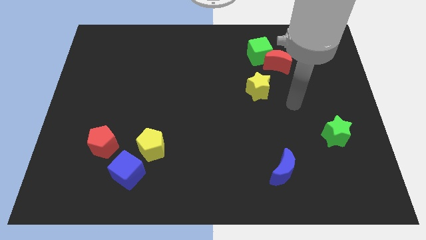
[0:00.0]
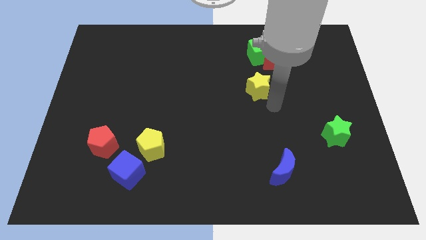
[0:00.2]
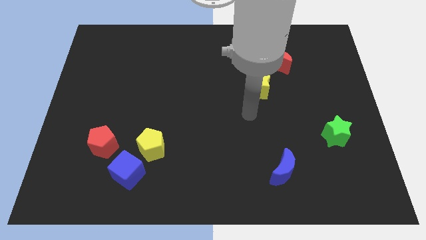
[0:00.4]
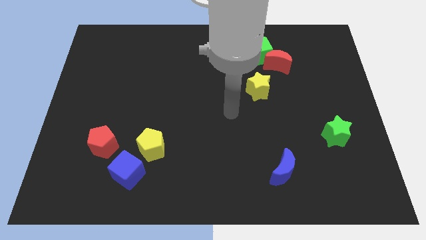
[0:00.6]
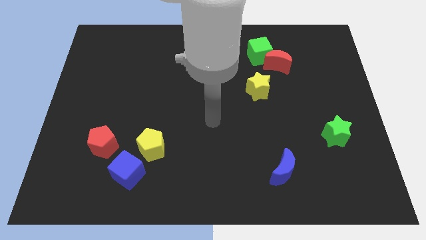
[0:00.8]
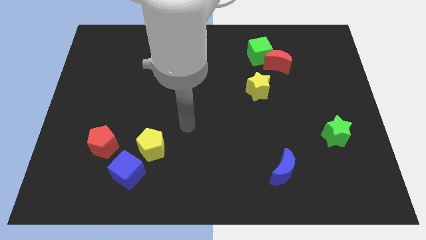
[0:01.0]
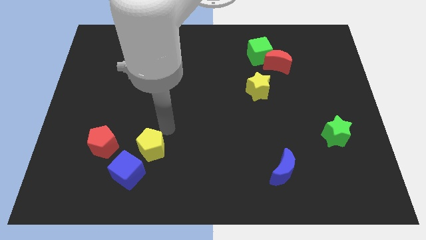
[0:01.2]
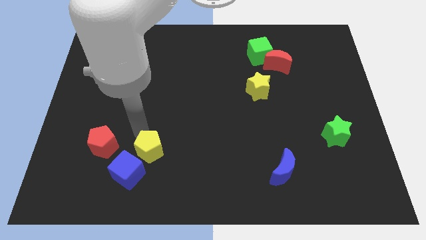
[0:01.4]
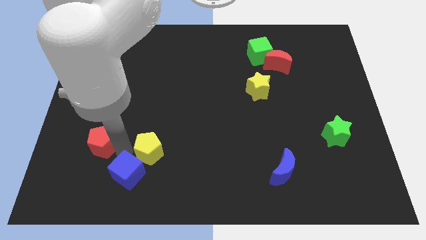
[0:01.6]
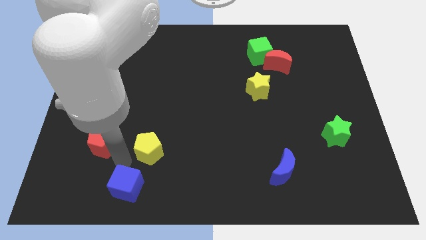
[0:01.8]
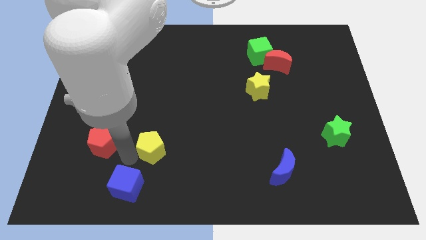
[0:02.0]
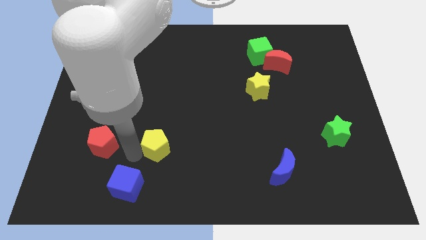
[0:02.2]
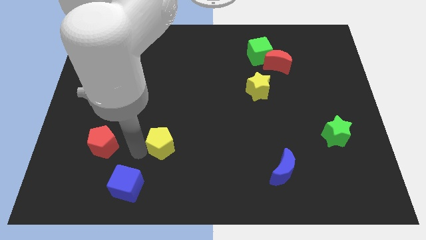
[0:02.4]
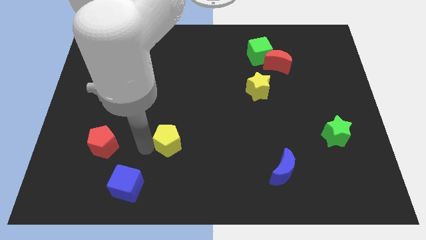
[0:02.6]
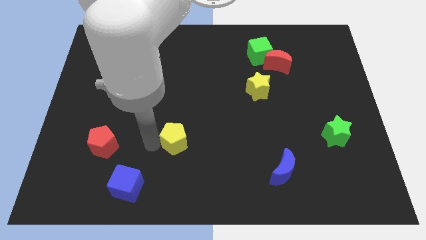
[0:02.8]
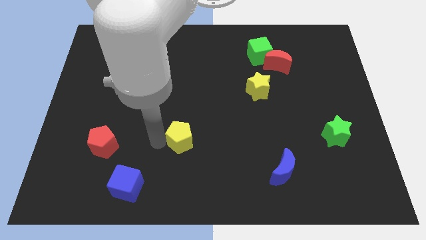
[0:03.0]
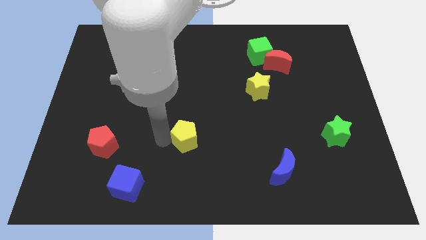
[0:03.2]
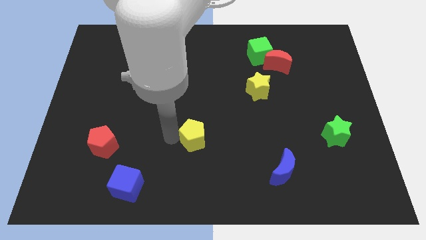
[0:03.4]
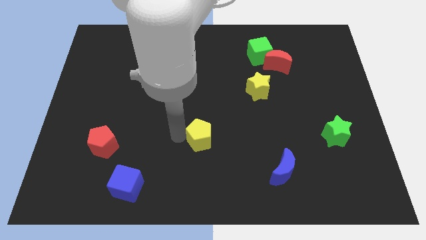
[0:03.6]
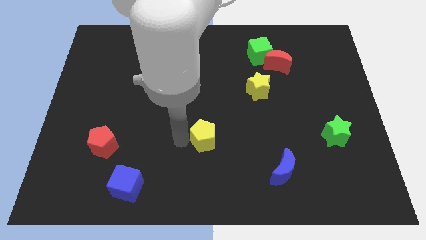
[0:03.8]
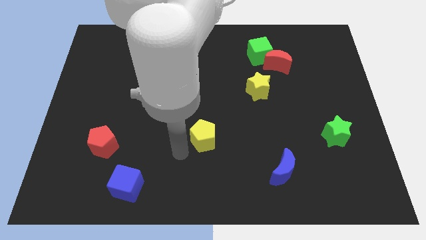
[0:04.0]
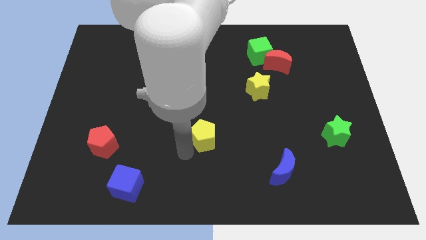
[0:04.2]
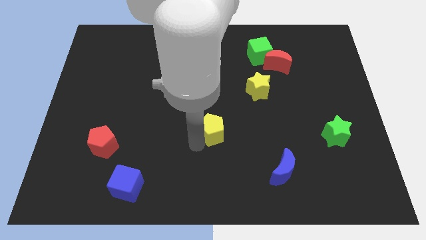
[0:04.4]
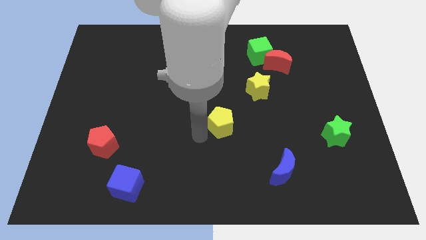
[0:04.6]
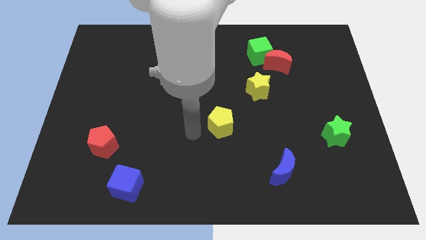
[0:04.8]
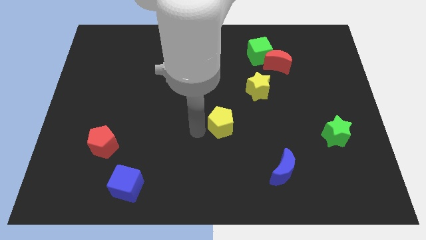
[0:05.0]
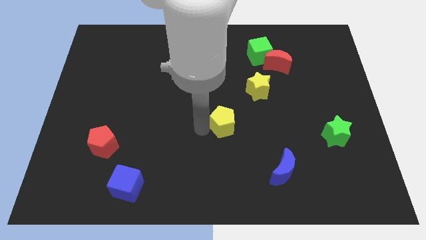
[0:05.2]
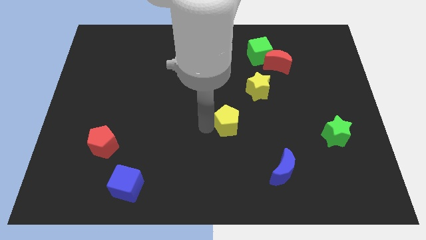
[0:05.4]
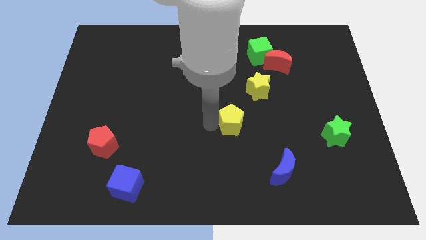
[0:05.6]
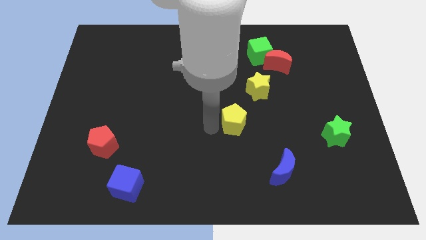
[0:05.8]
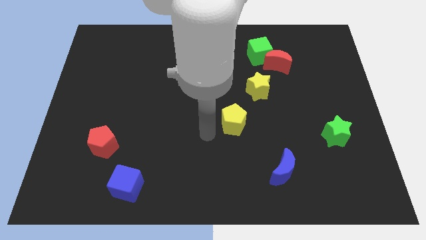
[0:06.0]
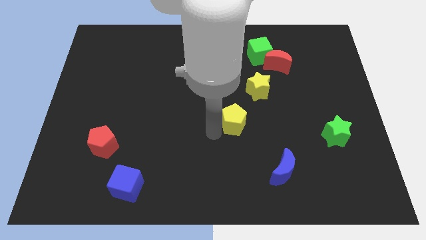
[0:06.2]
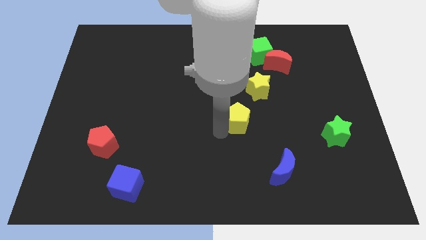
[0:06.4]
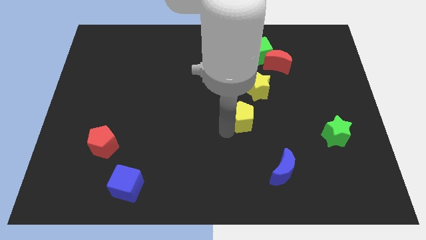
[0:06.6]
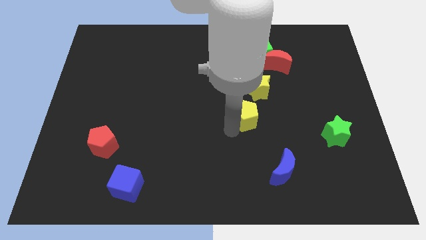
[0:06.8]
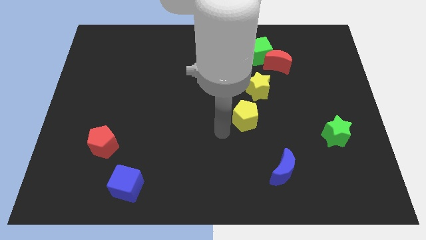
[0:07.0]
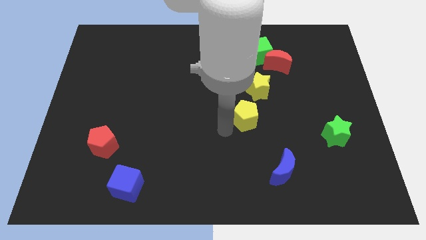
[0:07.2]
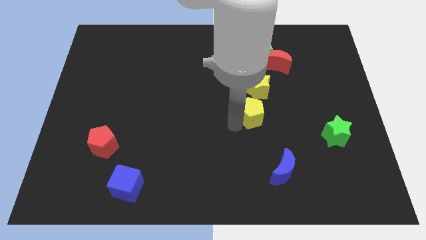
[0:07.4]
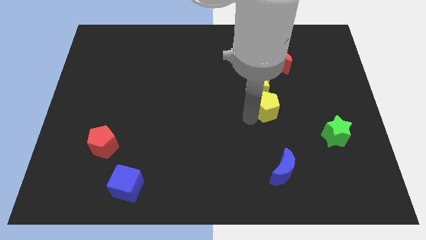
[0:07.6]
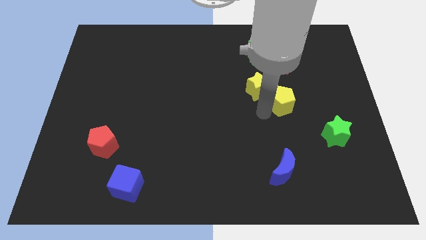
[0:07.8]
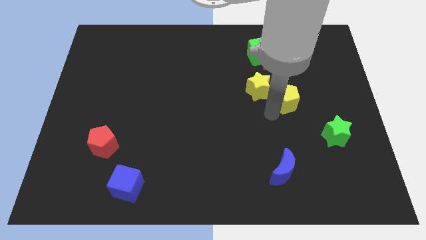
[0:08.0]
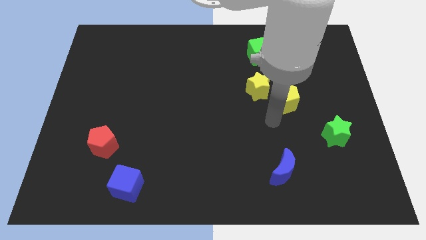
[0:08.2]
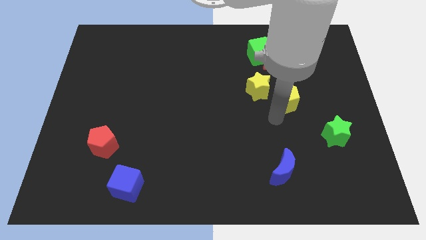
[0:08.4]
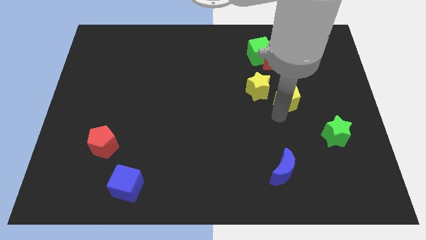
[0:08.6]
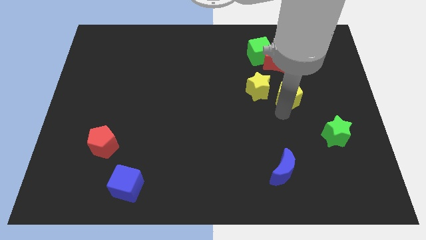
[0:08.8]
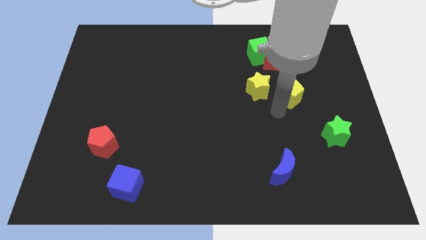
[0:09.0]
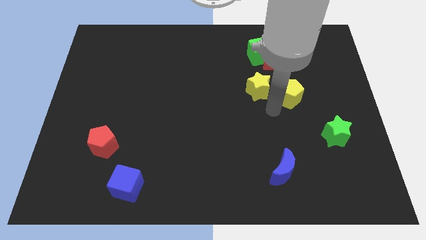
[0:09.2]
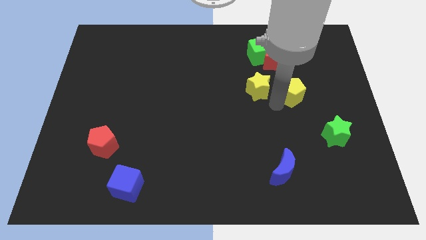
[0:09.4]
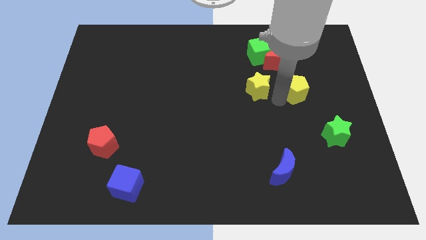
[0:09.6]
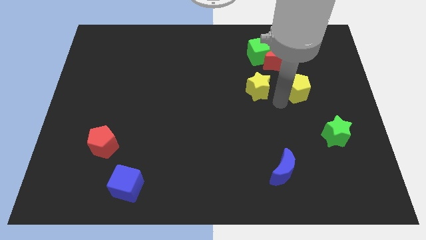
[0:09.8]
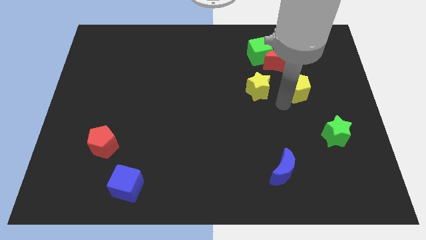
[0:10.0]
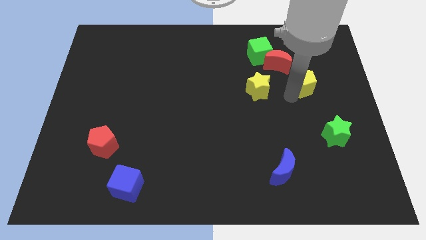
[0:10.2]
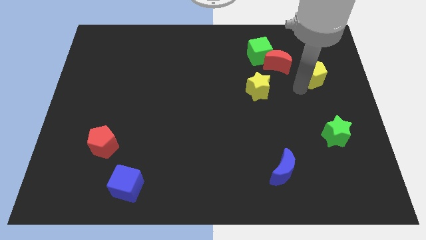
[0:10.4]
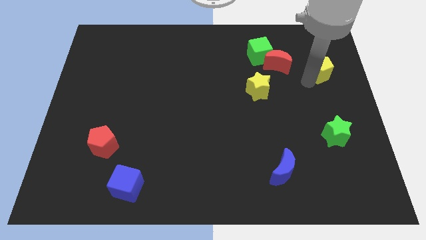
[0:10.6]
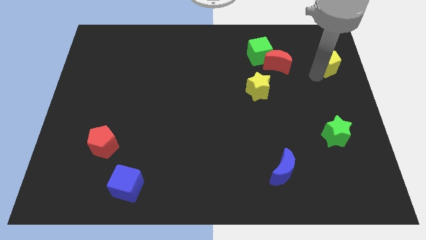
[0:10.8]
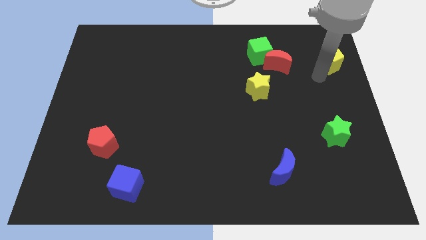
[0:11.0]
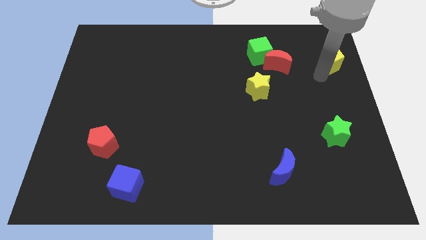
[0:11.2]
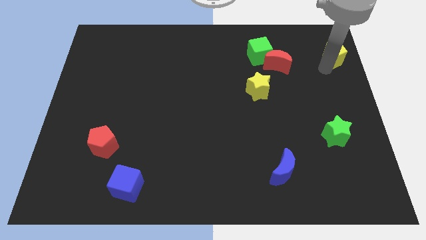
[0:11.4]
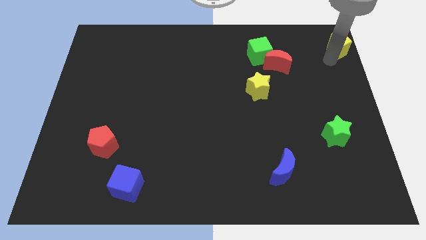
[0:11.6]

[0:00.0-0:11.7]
put the yellow pentagon to the top right

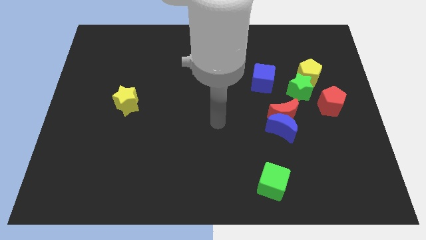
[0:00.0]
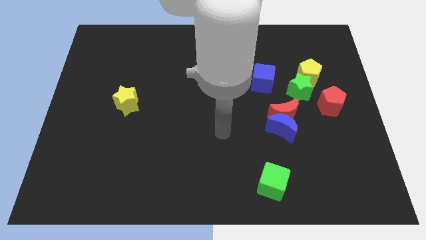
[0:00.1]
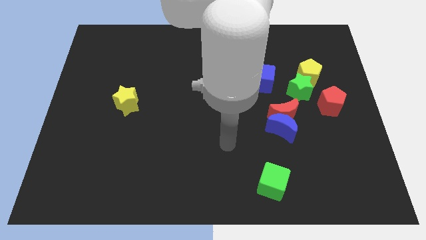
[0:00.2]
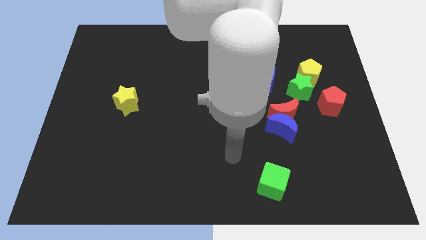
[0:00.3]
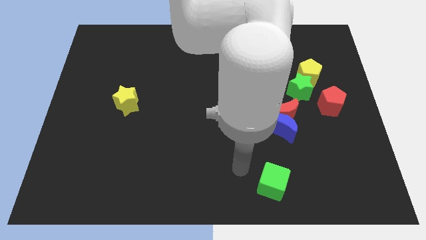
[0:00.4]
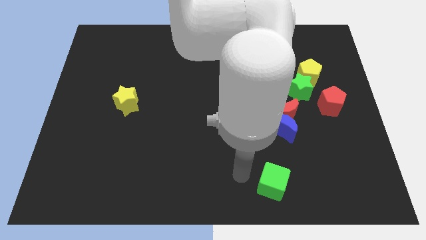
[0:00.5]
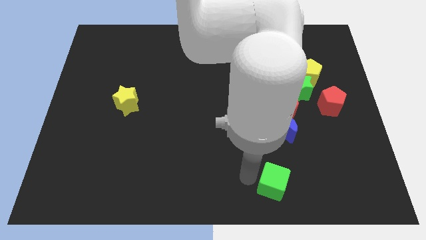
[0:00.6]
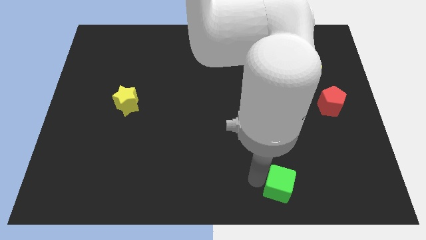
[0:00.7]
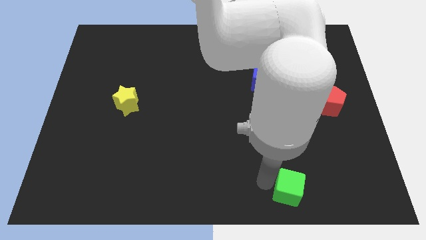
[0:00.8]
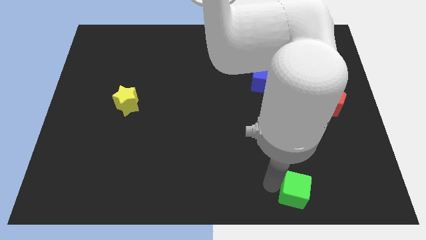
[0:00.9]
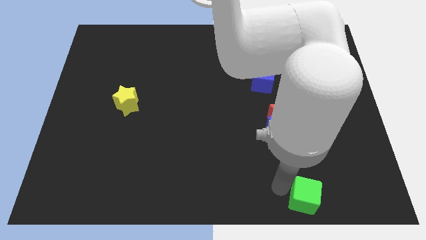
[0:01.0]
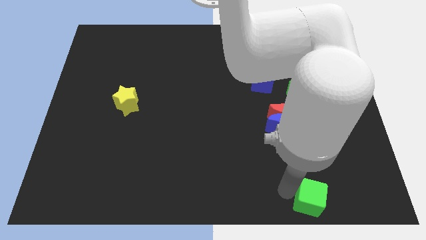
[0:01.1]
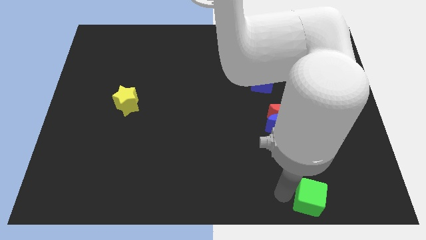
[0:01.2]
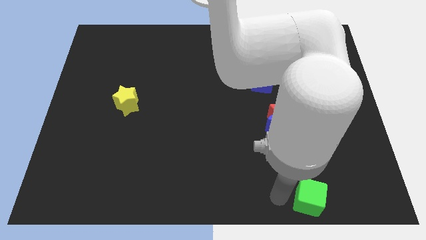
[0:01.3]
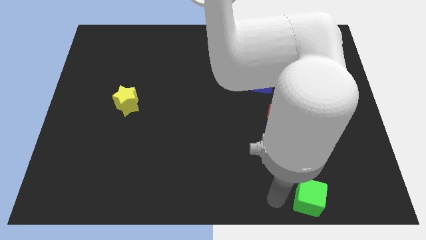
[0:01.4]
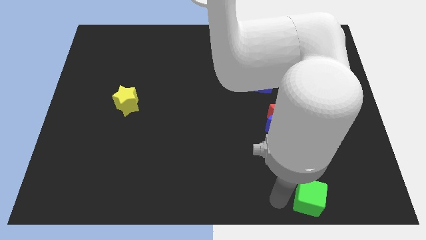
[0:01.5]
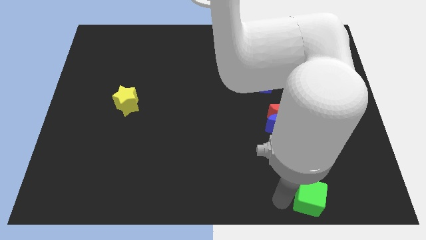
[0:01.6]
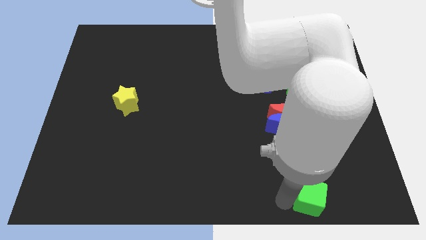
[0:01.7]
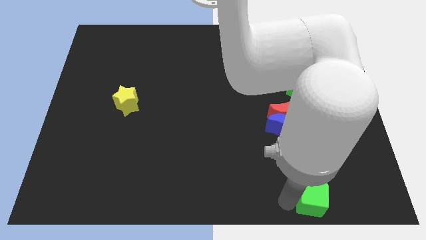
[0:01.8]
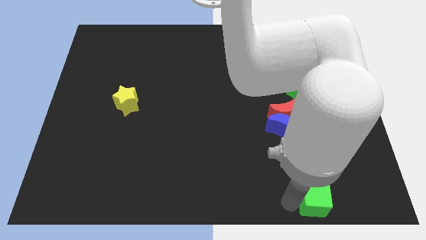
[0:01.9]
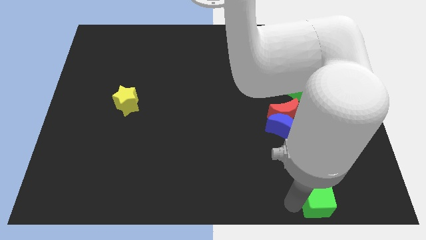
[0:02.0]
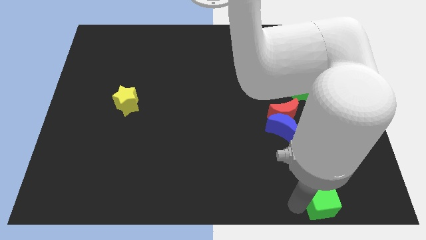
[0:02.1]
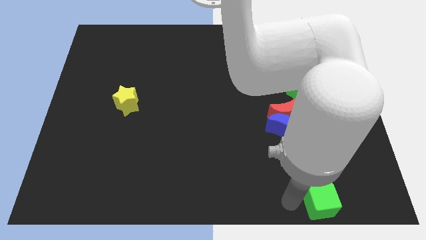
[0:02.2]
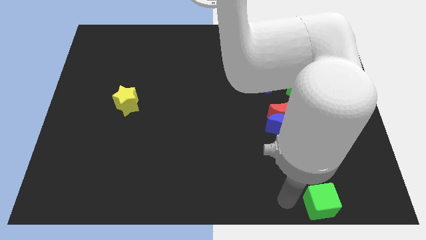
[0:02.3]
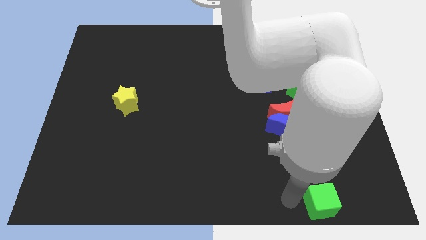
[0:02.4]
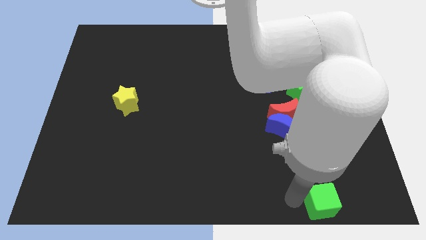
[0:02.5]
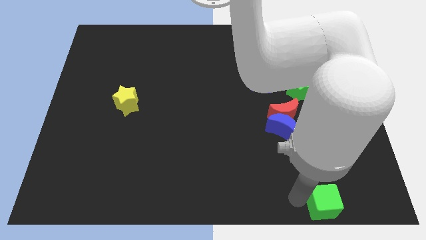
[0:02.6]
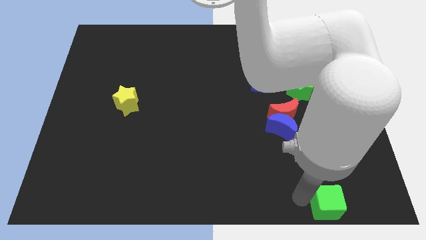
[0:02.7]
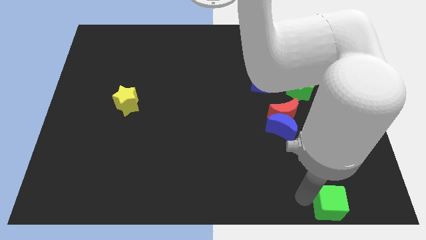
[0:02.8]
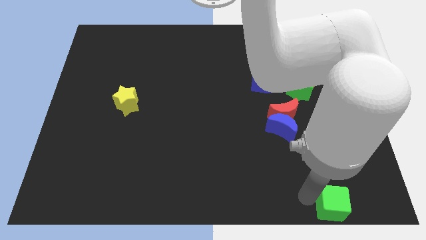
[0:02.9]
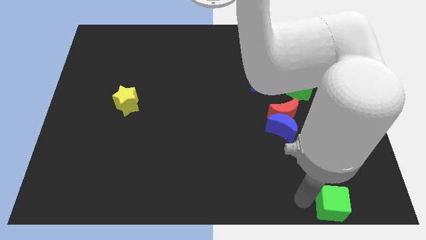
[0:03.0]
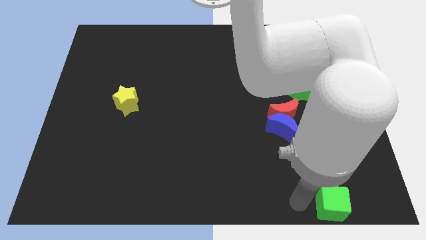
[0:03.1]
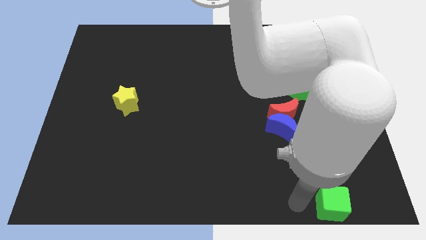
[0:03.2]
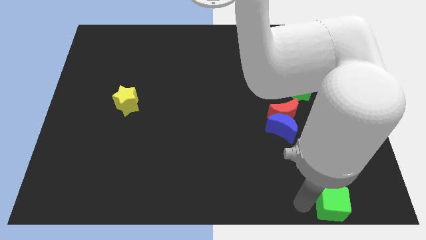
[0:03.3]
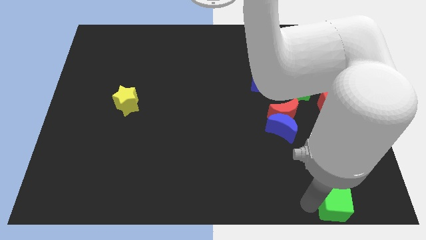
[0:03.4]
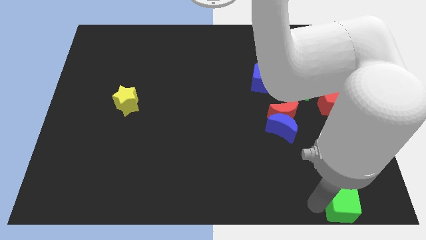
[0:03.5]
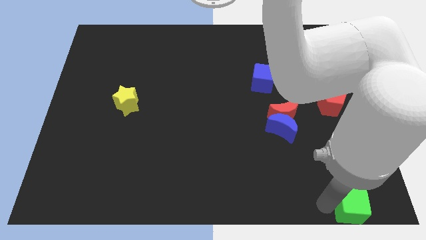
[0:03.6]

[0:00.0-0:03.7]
put the green cube to the bottom right of the board
